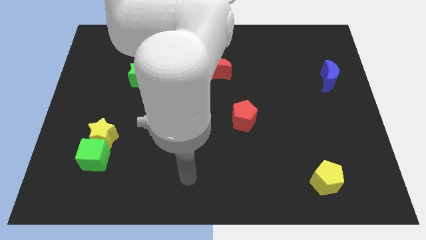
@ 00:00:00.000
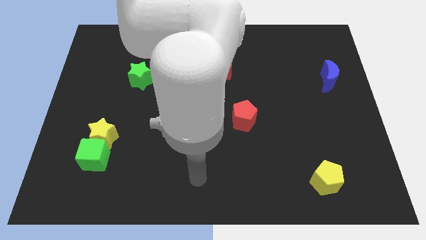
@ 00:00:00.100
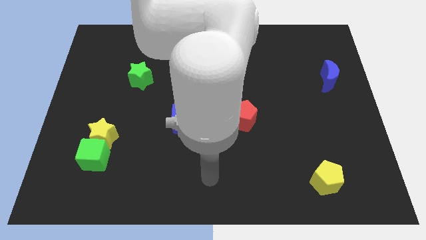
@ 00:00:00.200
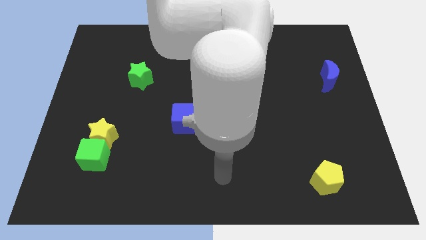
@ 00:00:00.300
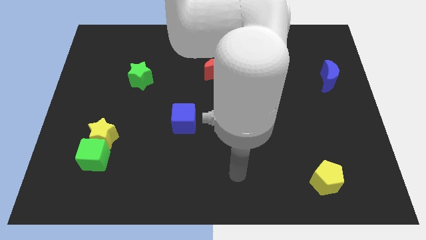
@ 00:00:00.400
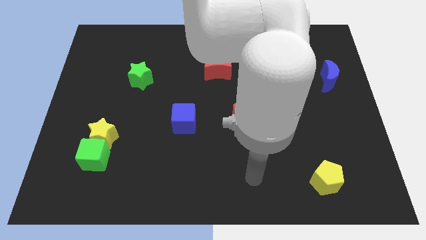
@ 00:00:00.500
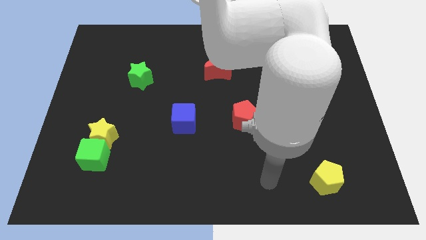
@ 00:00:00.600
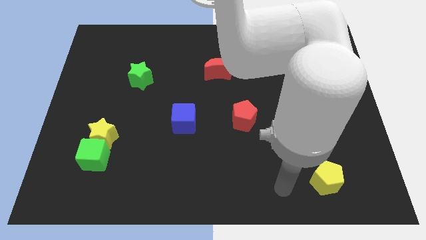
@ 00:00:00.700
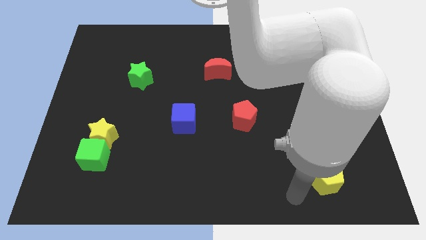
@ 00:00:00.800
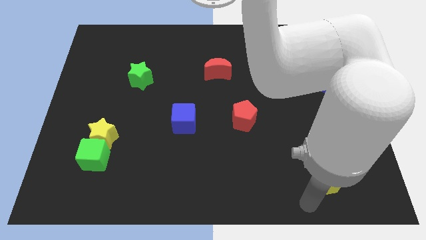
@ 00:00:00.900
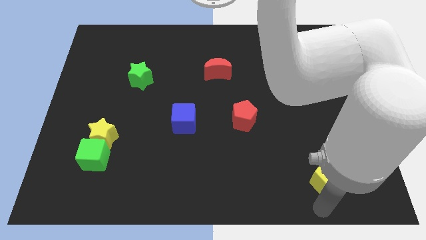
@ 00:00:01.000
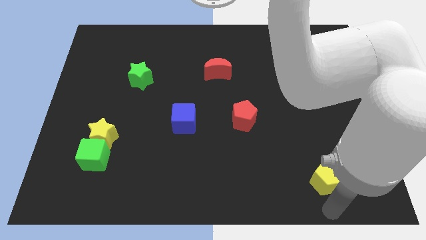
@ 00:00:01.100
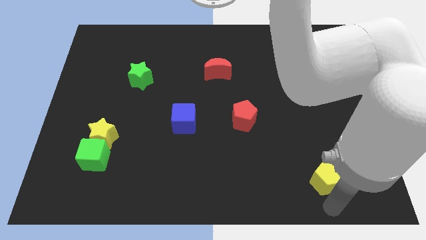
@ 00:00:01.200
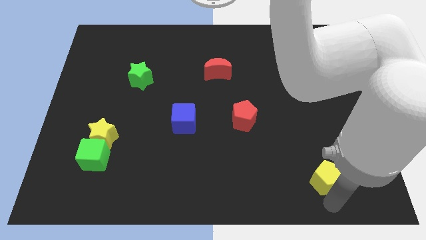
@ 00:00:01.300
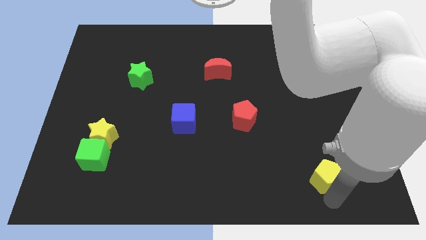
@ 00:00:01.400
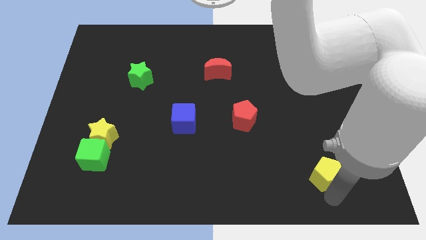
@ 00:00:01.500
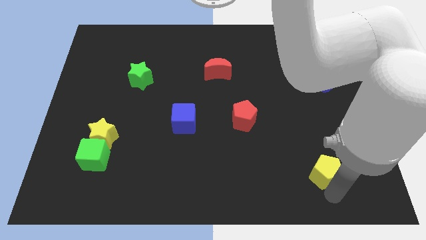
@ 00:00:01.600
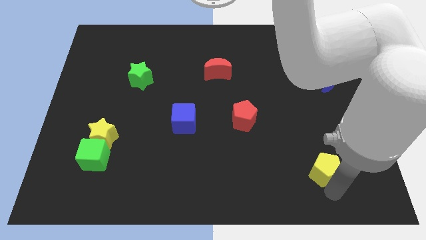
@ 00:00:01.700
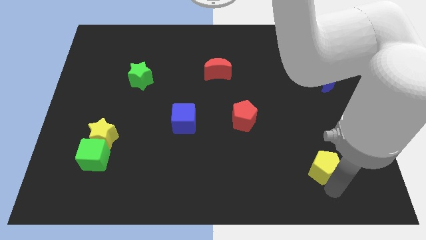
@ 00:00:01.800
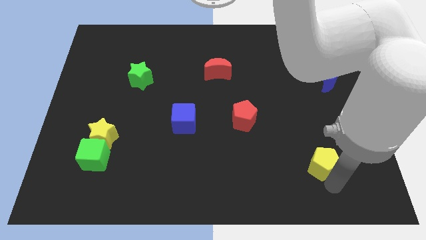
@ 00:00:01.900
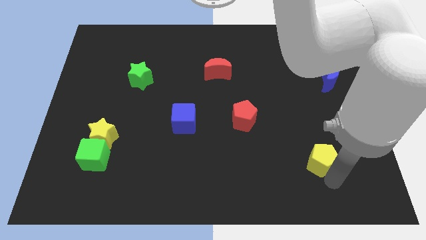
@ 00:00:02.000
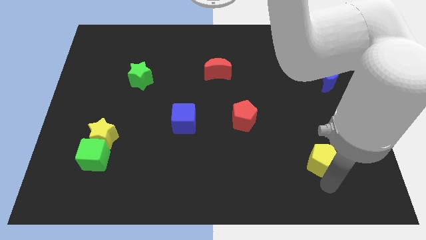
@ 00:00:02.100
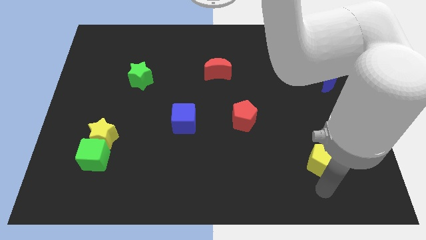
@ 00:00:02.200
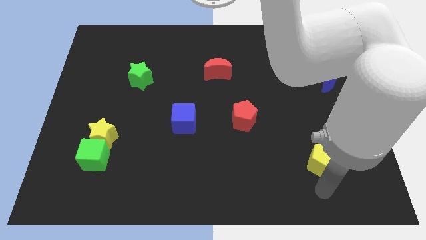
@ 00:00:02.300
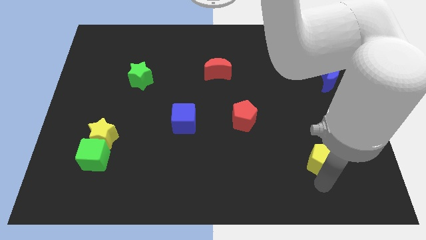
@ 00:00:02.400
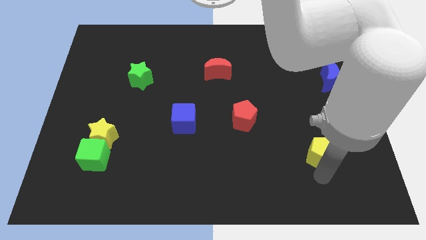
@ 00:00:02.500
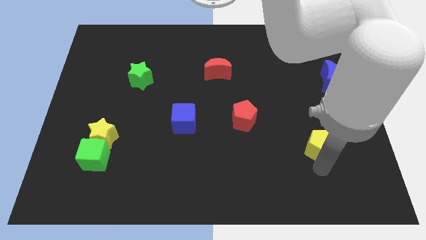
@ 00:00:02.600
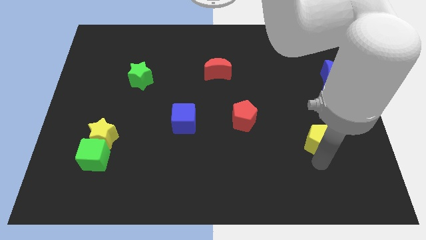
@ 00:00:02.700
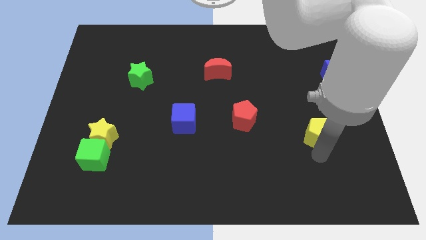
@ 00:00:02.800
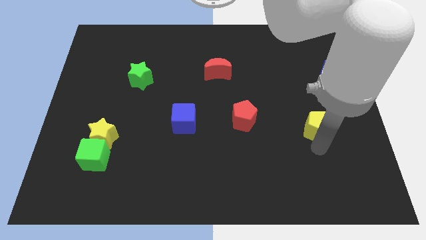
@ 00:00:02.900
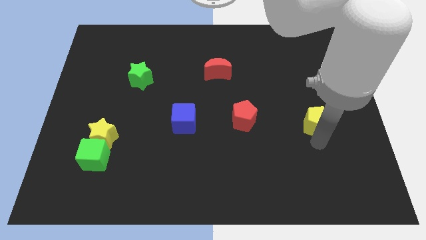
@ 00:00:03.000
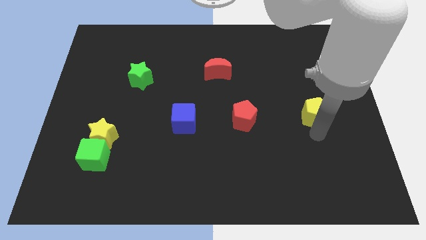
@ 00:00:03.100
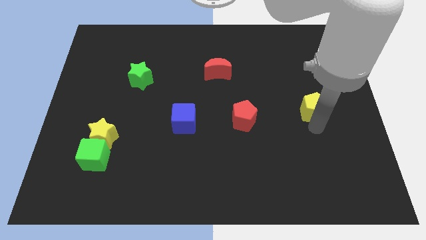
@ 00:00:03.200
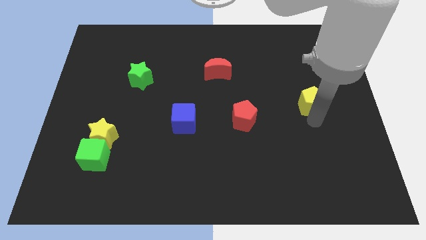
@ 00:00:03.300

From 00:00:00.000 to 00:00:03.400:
move the yellow pentagon up

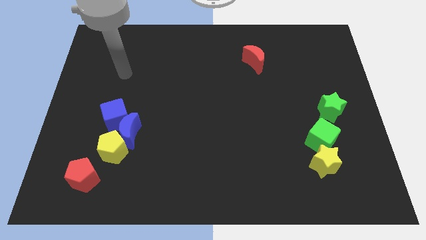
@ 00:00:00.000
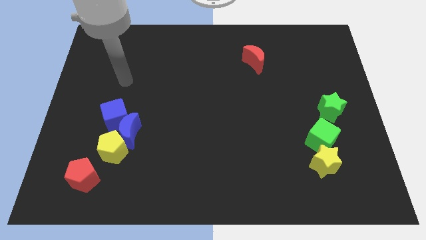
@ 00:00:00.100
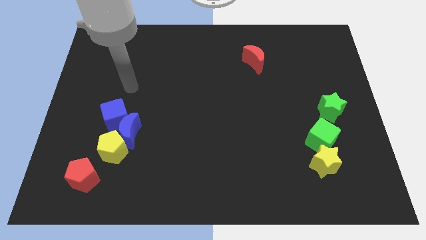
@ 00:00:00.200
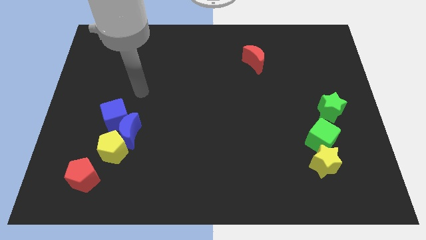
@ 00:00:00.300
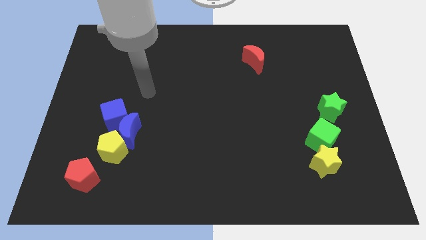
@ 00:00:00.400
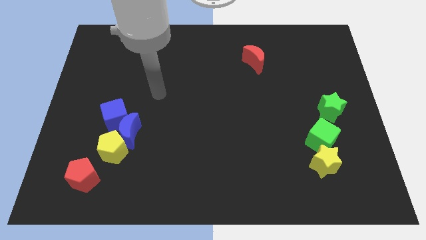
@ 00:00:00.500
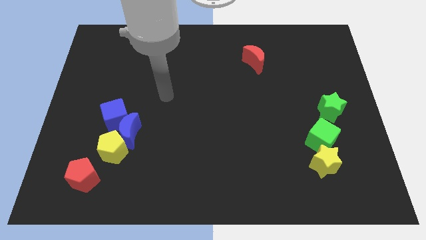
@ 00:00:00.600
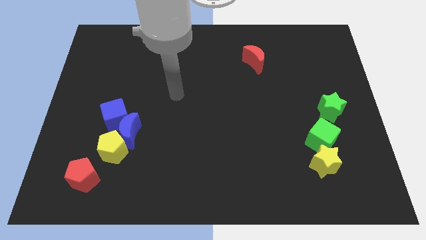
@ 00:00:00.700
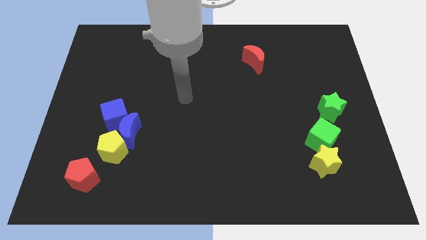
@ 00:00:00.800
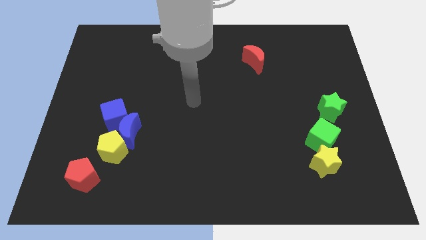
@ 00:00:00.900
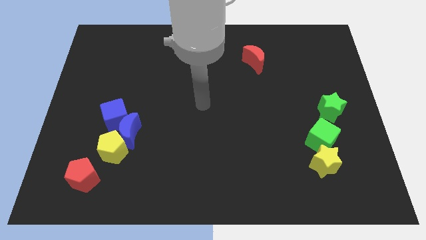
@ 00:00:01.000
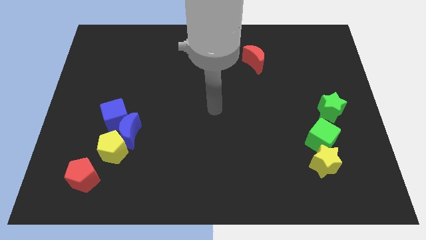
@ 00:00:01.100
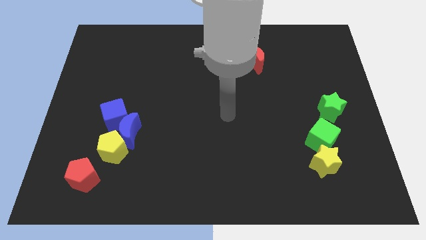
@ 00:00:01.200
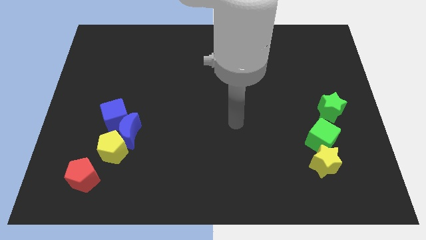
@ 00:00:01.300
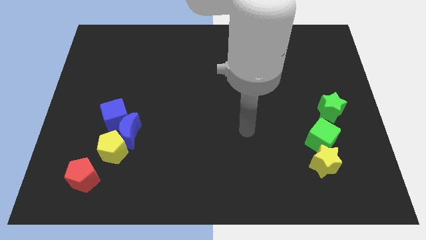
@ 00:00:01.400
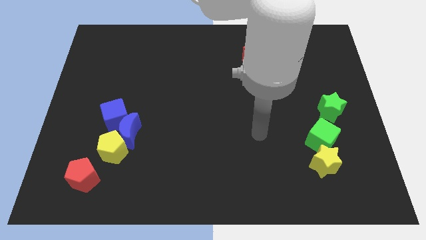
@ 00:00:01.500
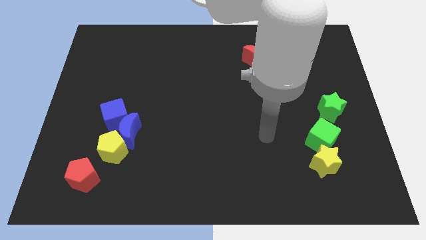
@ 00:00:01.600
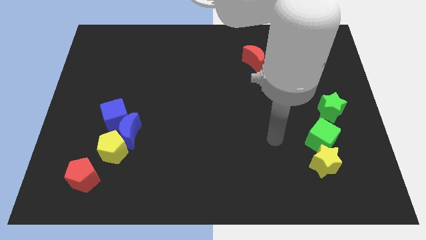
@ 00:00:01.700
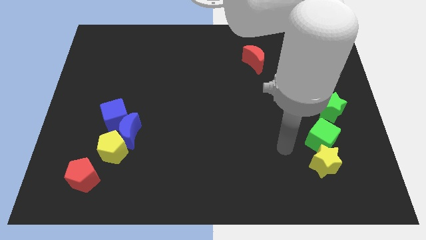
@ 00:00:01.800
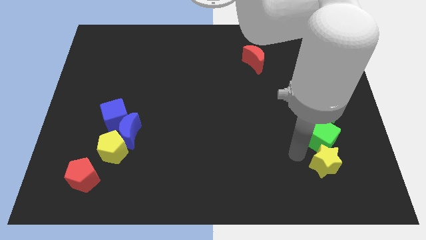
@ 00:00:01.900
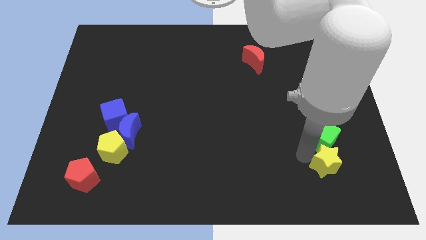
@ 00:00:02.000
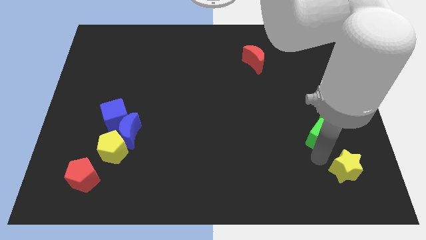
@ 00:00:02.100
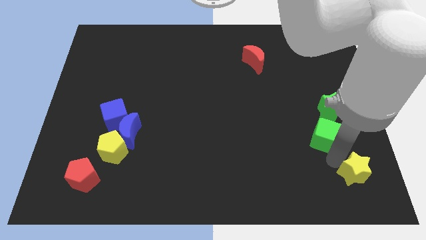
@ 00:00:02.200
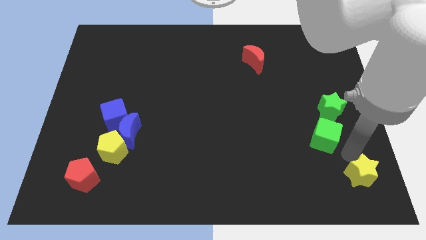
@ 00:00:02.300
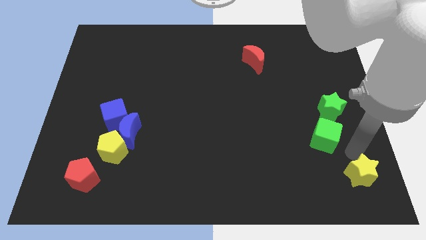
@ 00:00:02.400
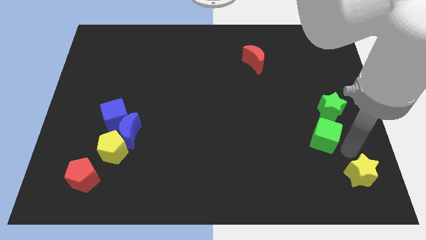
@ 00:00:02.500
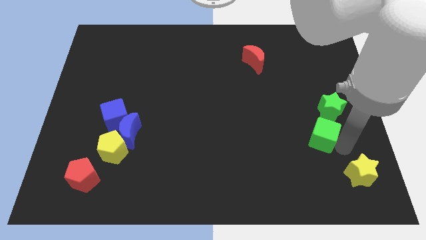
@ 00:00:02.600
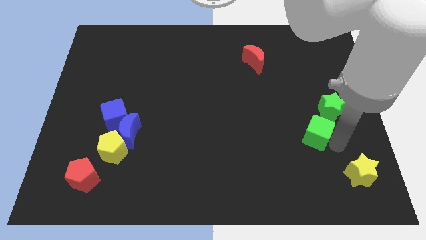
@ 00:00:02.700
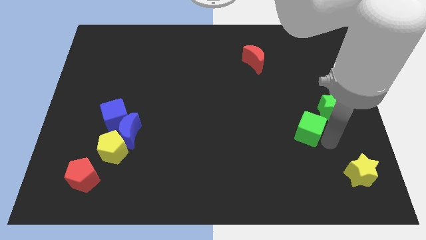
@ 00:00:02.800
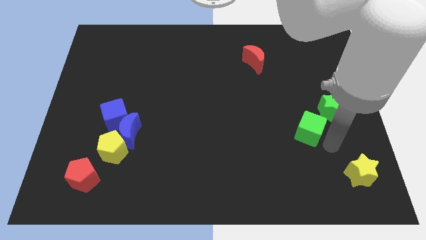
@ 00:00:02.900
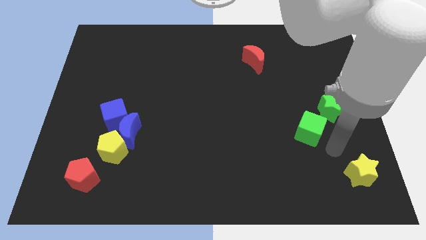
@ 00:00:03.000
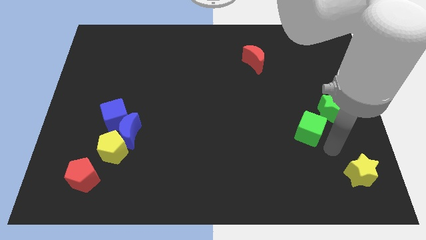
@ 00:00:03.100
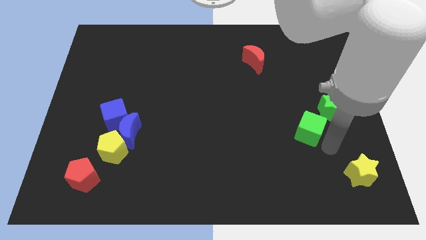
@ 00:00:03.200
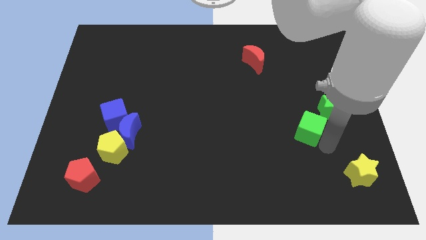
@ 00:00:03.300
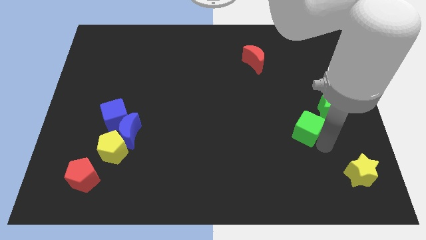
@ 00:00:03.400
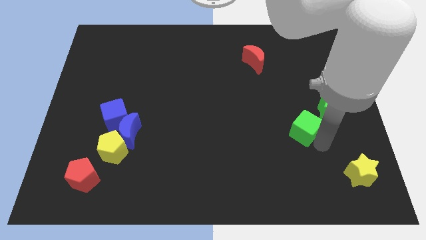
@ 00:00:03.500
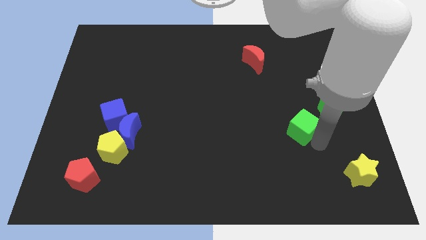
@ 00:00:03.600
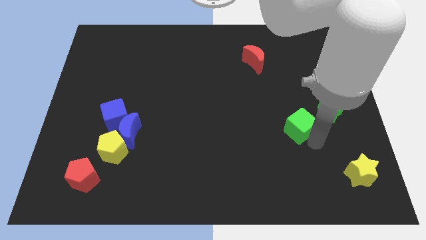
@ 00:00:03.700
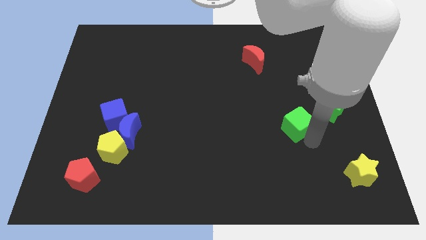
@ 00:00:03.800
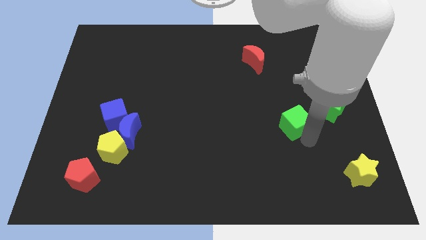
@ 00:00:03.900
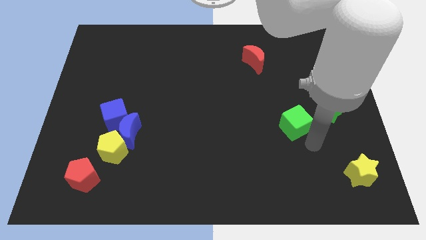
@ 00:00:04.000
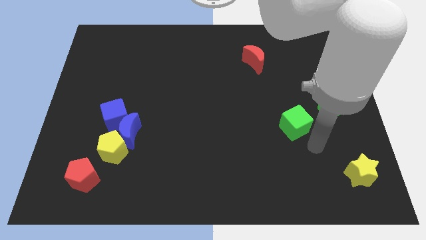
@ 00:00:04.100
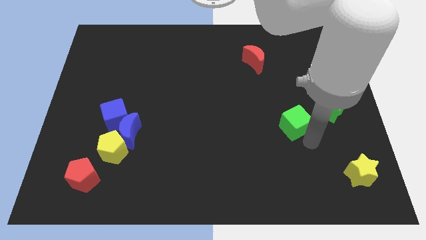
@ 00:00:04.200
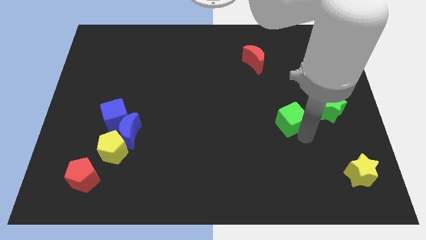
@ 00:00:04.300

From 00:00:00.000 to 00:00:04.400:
slide the green cube a little upwards and to the left

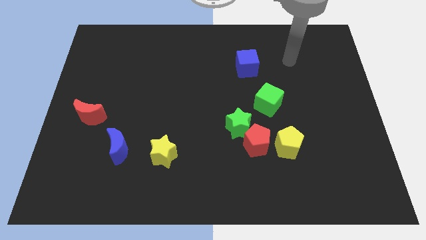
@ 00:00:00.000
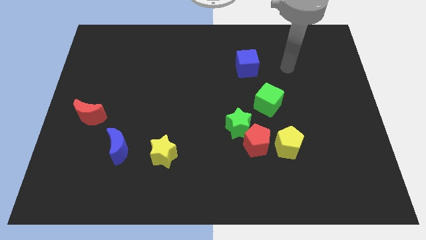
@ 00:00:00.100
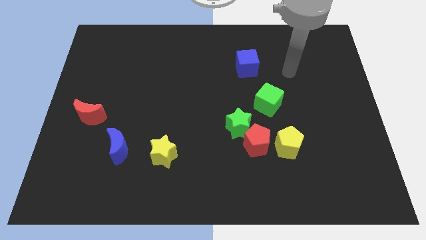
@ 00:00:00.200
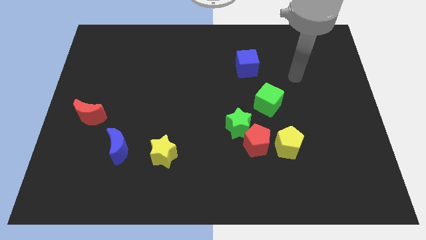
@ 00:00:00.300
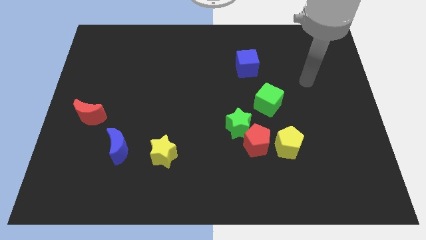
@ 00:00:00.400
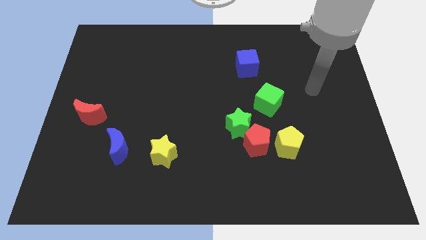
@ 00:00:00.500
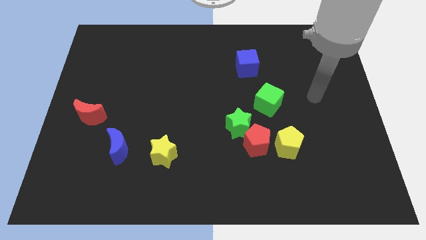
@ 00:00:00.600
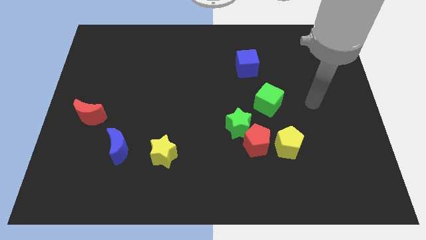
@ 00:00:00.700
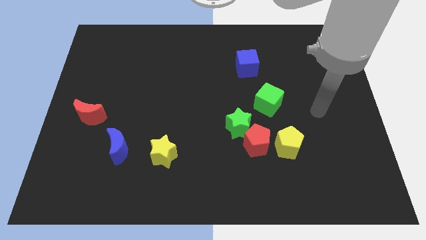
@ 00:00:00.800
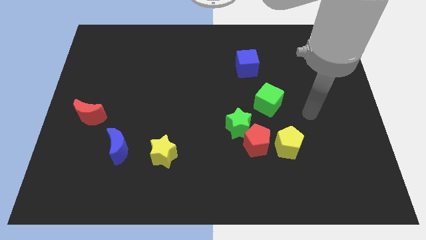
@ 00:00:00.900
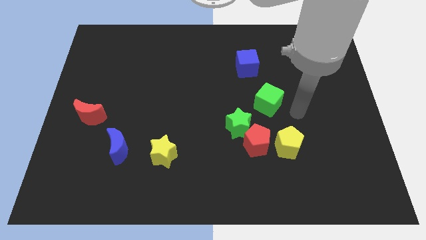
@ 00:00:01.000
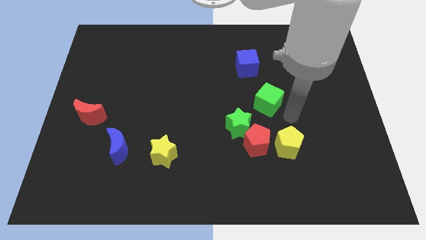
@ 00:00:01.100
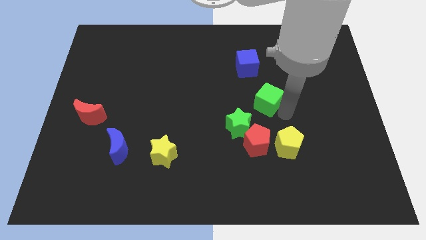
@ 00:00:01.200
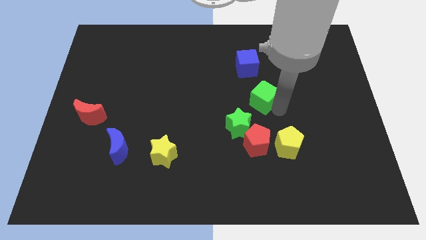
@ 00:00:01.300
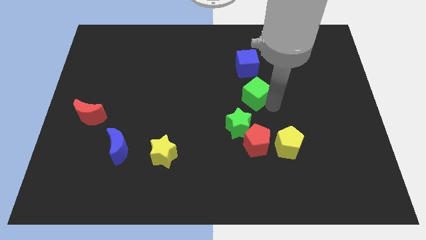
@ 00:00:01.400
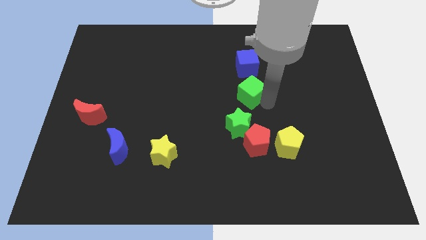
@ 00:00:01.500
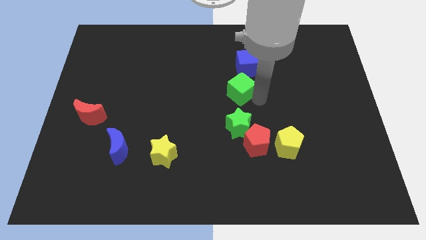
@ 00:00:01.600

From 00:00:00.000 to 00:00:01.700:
move the green cube up and then to the left slightly
